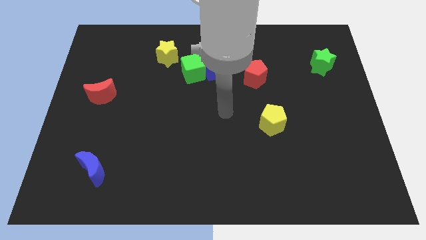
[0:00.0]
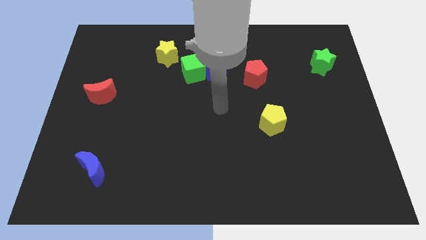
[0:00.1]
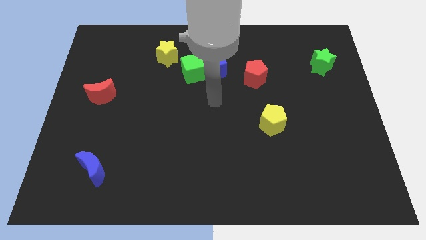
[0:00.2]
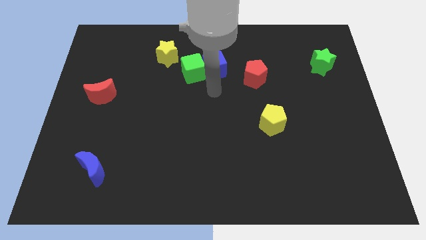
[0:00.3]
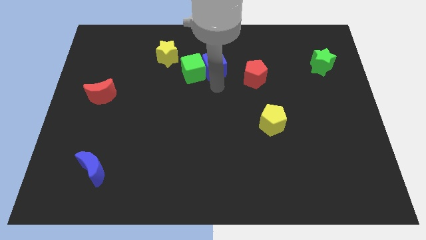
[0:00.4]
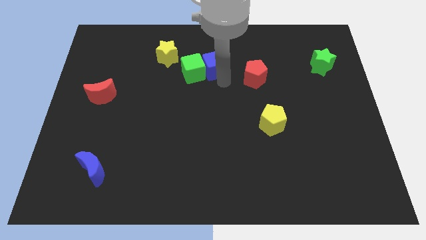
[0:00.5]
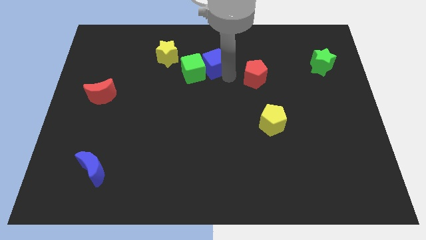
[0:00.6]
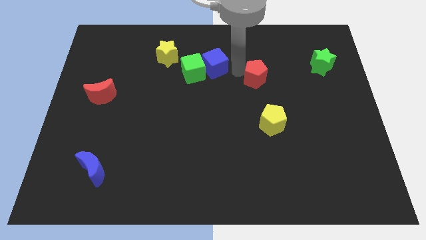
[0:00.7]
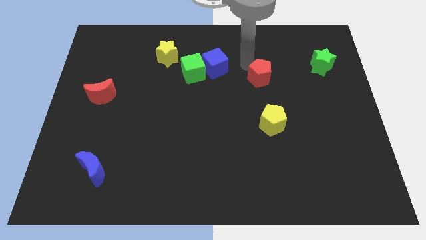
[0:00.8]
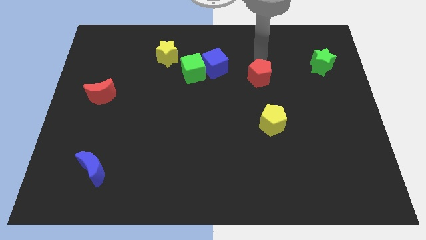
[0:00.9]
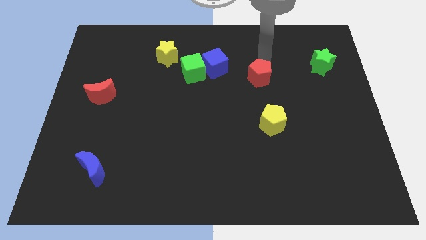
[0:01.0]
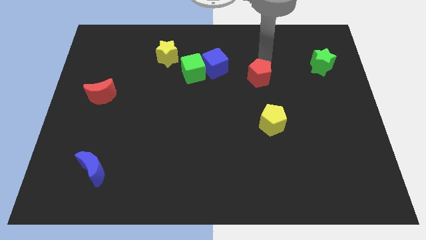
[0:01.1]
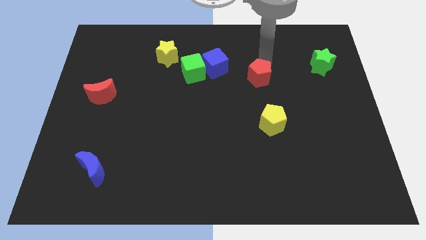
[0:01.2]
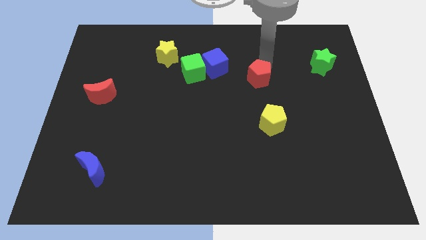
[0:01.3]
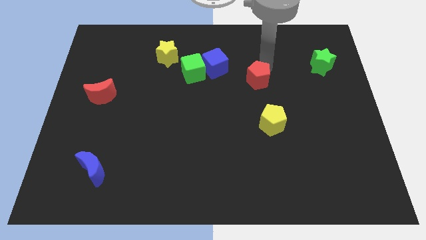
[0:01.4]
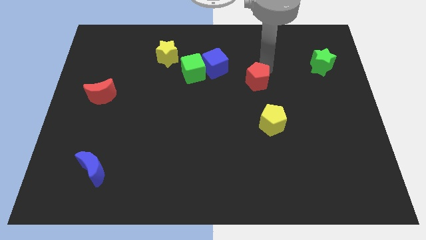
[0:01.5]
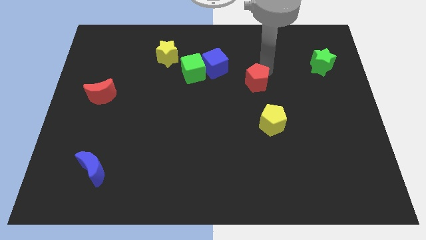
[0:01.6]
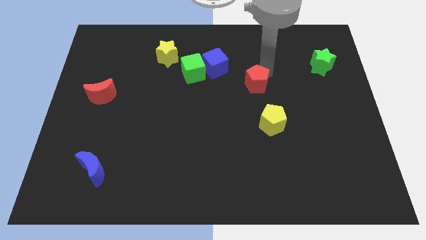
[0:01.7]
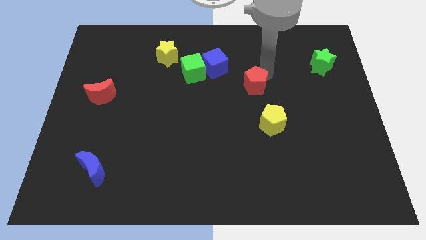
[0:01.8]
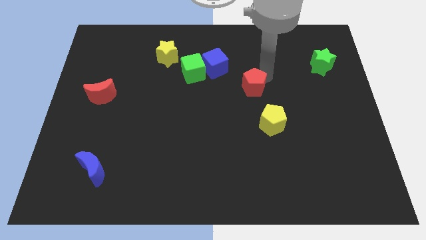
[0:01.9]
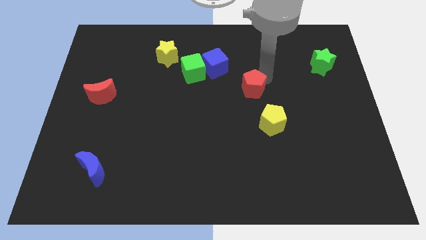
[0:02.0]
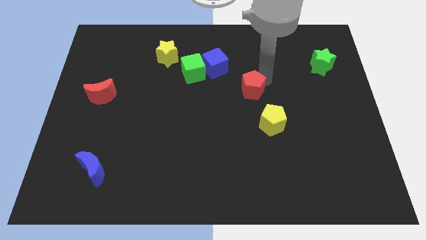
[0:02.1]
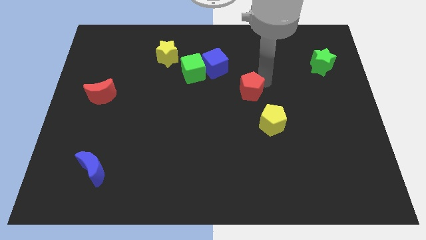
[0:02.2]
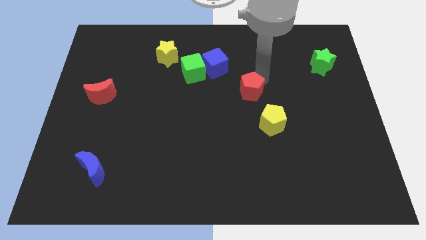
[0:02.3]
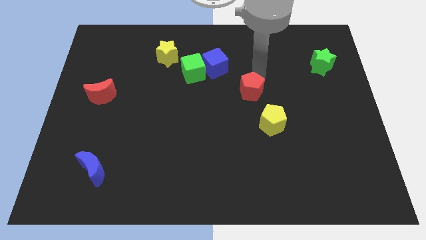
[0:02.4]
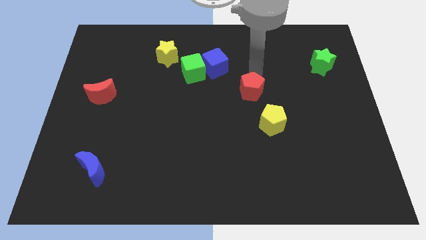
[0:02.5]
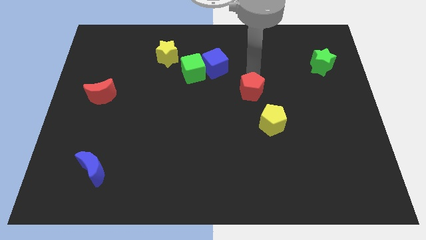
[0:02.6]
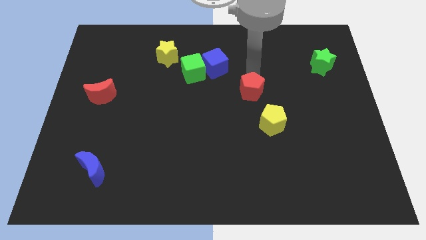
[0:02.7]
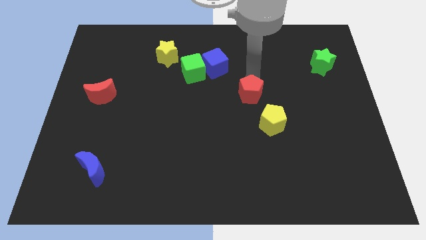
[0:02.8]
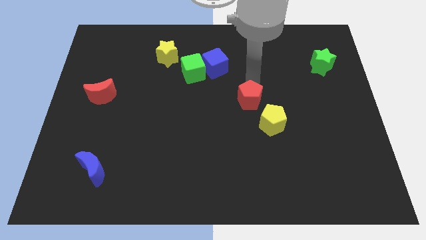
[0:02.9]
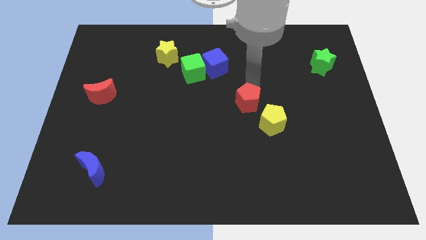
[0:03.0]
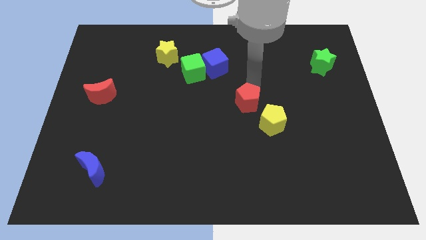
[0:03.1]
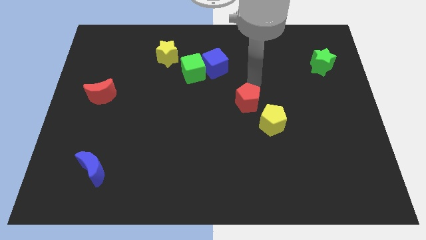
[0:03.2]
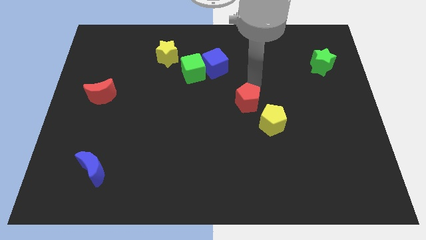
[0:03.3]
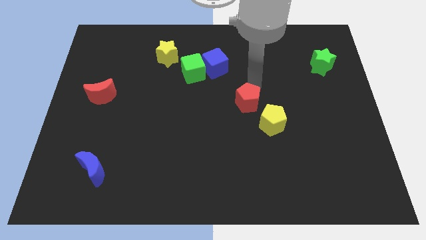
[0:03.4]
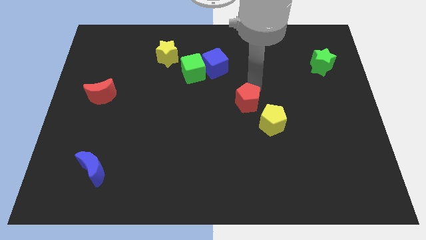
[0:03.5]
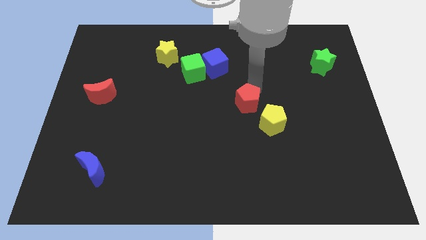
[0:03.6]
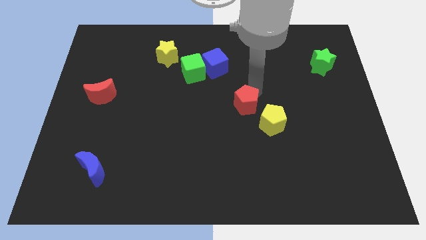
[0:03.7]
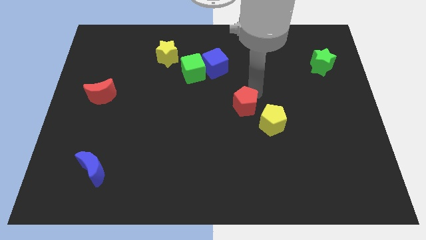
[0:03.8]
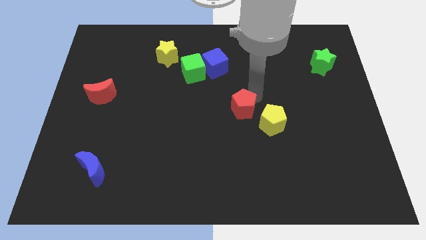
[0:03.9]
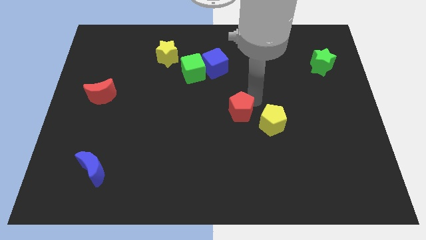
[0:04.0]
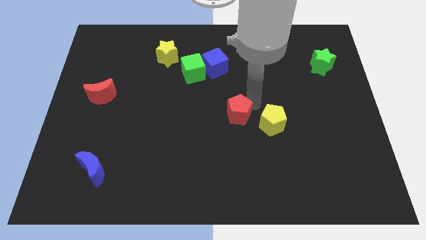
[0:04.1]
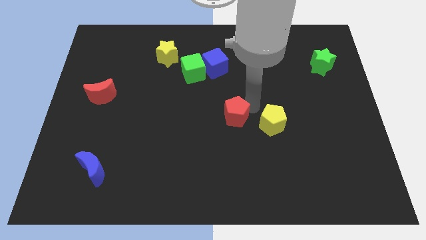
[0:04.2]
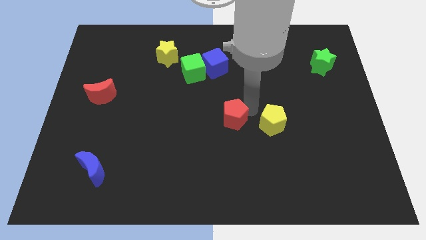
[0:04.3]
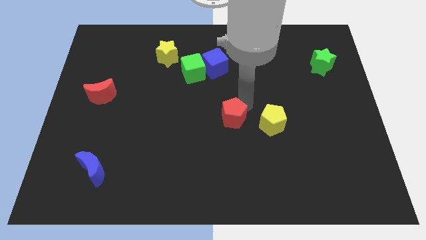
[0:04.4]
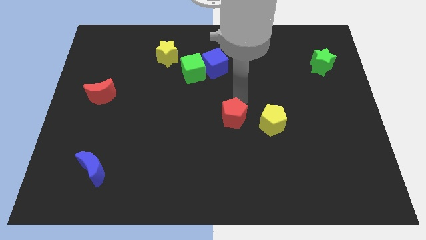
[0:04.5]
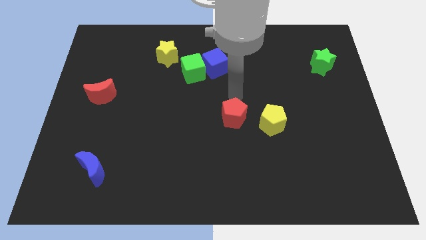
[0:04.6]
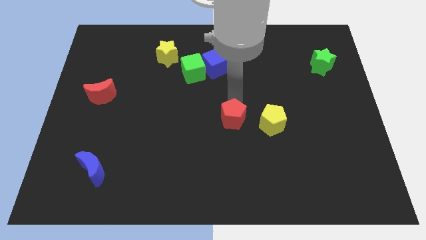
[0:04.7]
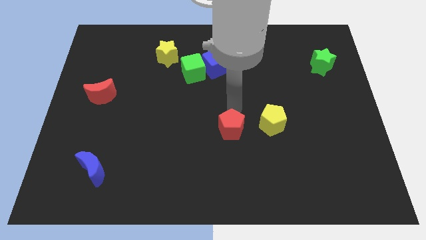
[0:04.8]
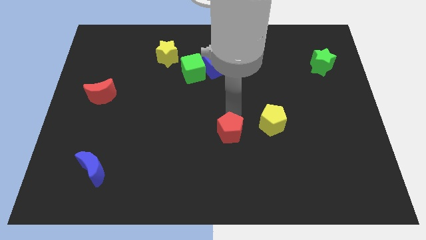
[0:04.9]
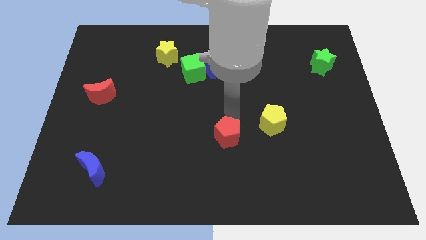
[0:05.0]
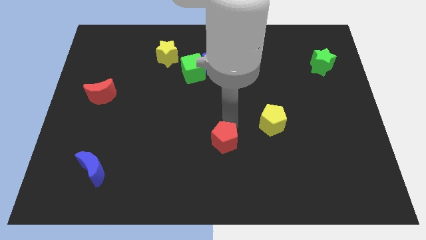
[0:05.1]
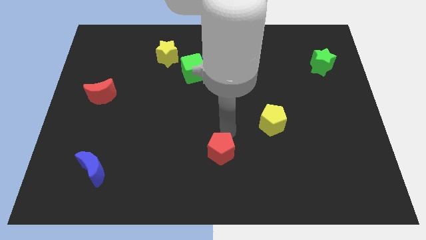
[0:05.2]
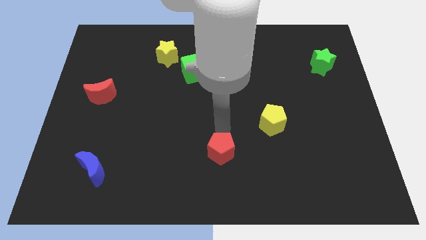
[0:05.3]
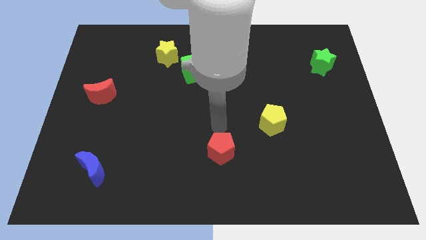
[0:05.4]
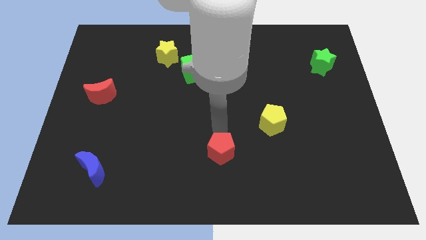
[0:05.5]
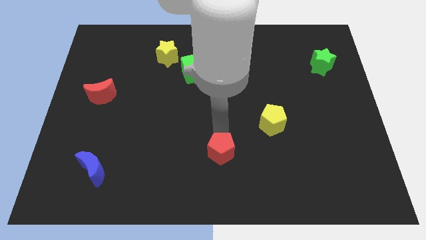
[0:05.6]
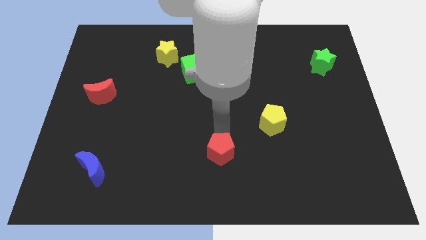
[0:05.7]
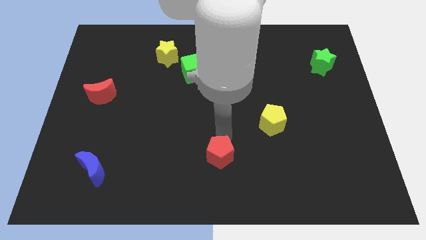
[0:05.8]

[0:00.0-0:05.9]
put the red pentagon to the bottom
